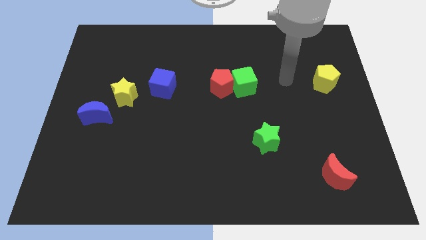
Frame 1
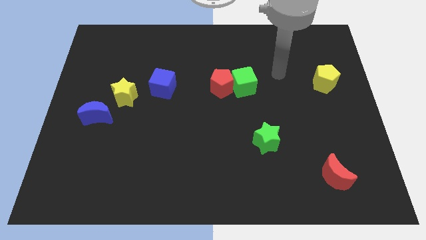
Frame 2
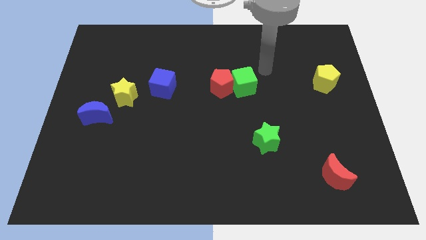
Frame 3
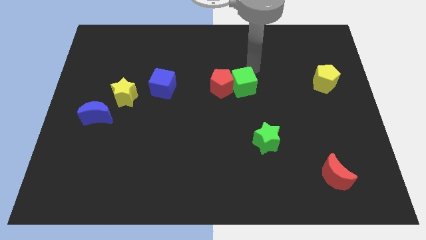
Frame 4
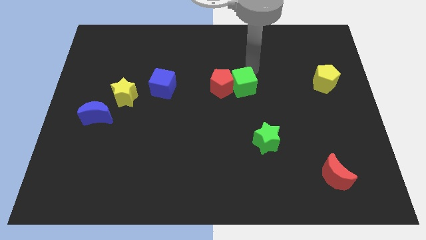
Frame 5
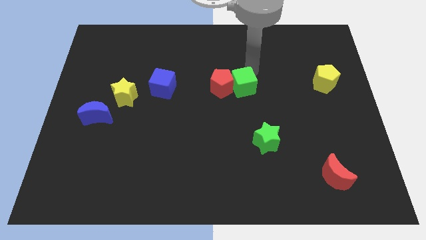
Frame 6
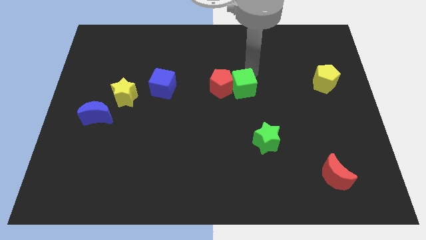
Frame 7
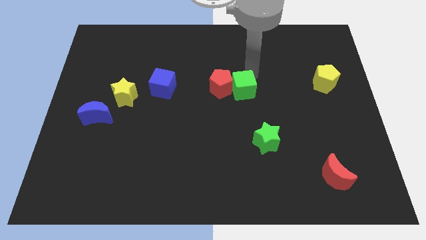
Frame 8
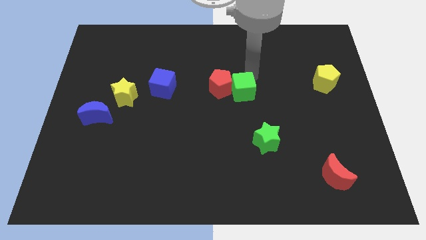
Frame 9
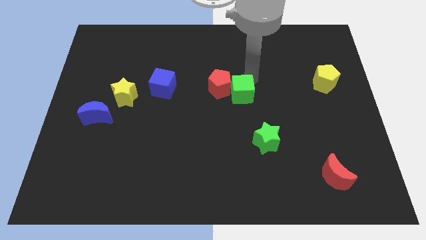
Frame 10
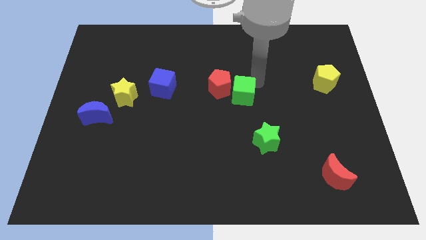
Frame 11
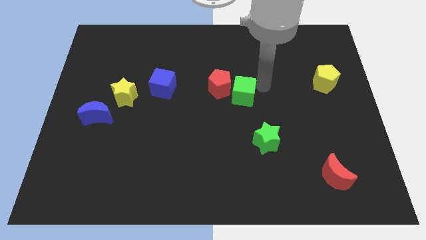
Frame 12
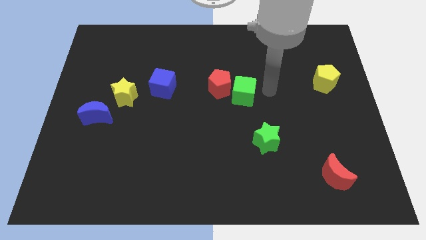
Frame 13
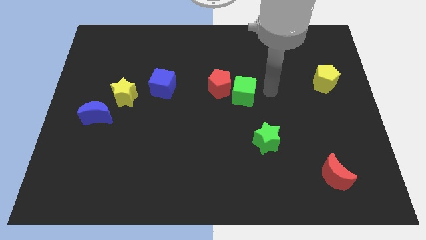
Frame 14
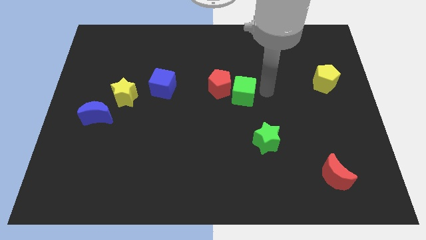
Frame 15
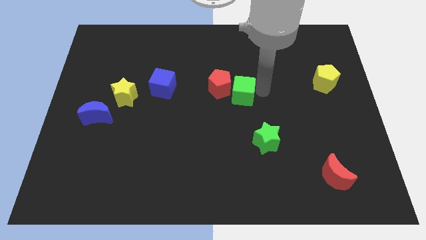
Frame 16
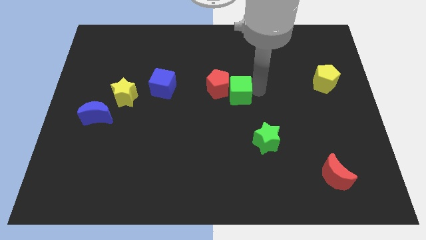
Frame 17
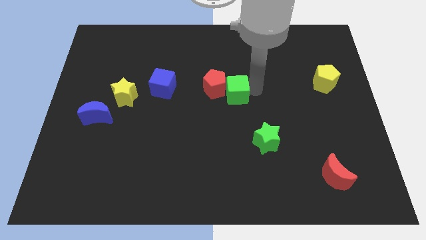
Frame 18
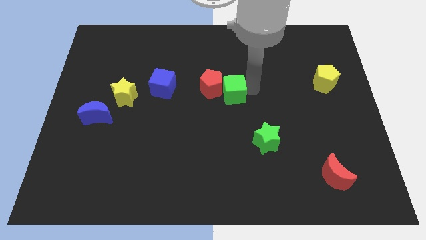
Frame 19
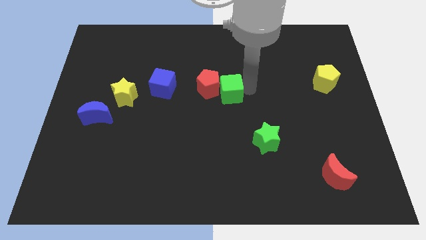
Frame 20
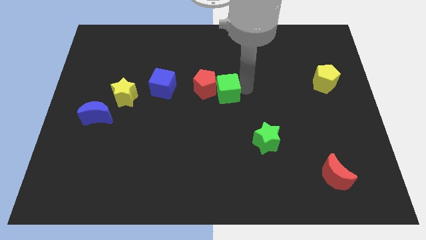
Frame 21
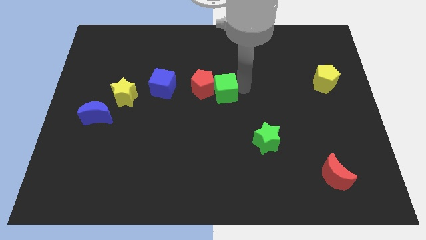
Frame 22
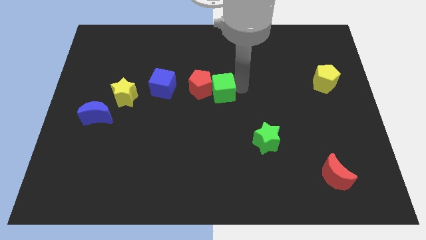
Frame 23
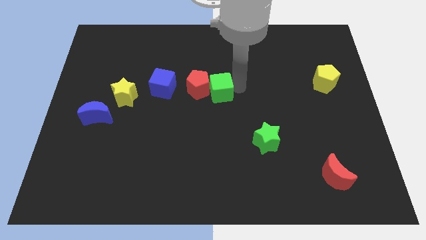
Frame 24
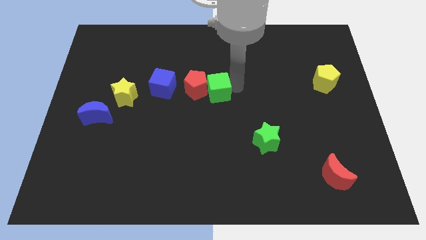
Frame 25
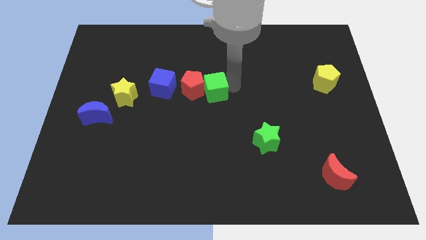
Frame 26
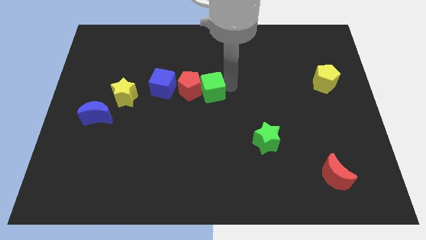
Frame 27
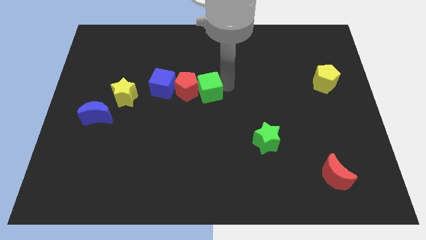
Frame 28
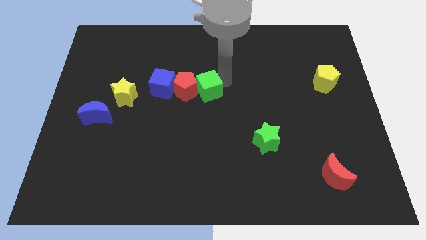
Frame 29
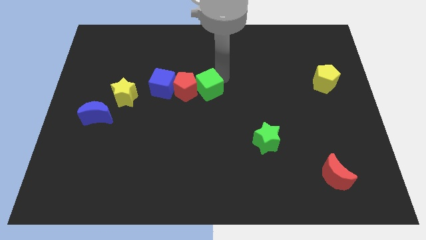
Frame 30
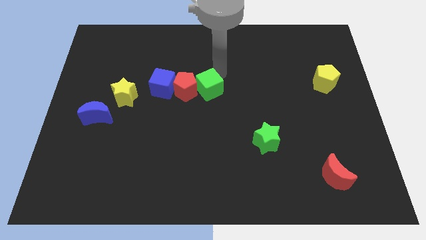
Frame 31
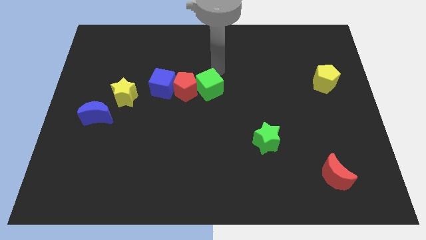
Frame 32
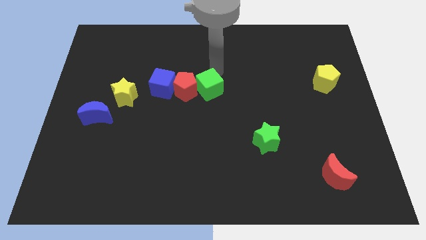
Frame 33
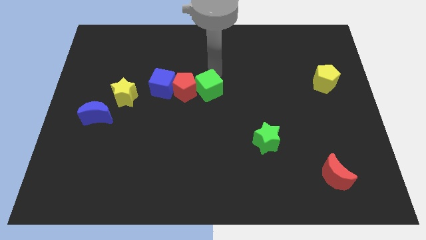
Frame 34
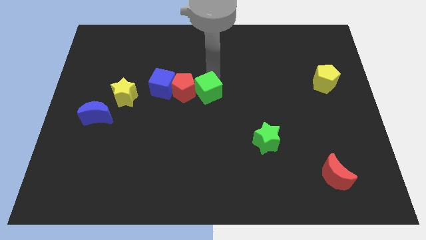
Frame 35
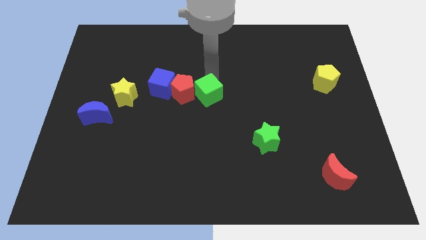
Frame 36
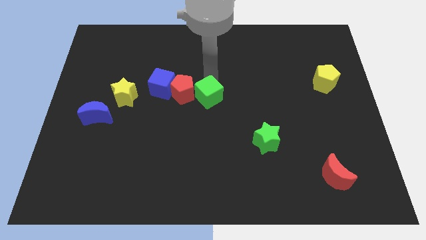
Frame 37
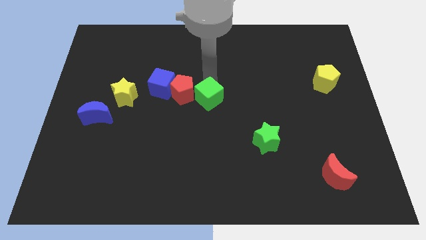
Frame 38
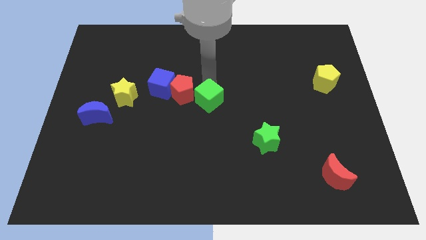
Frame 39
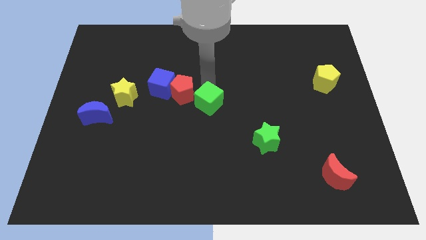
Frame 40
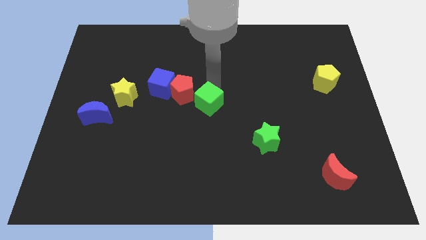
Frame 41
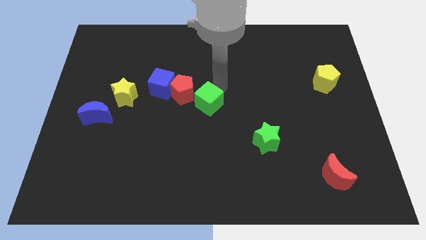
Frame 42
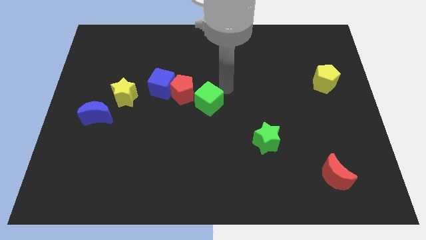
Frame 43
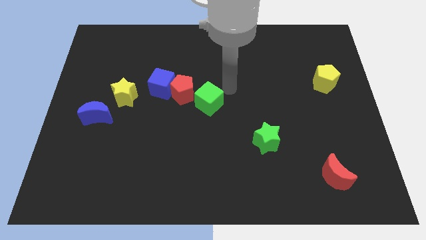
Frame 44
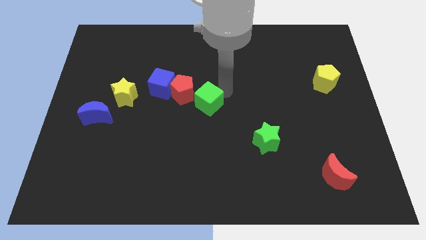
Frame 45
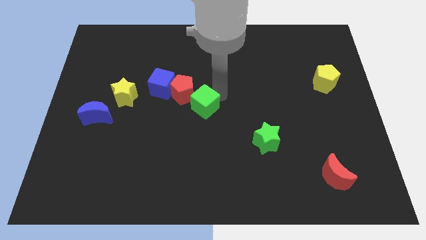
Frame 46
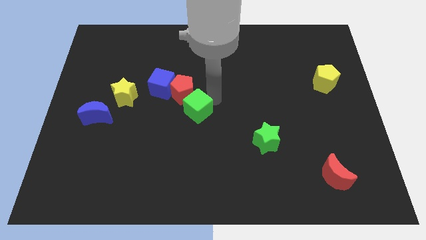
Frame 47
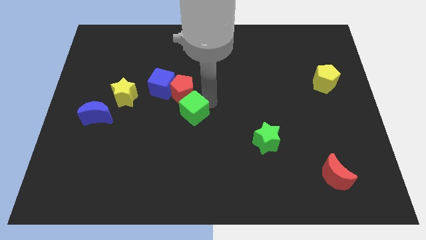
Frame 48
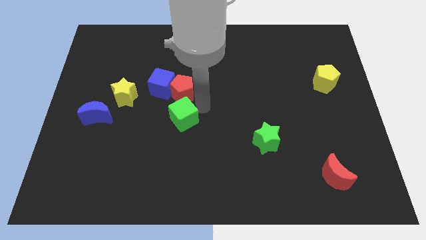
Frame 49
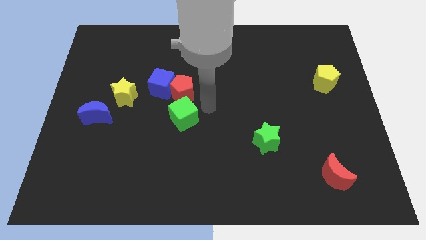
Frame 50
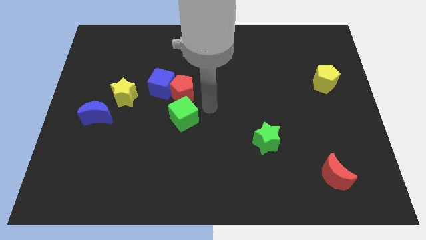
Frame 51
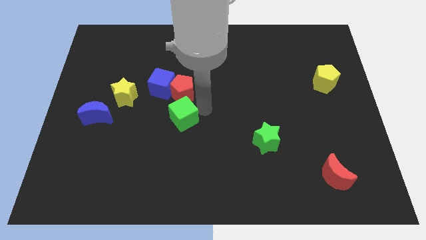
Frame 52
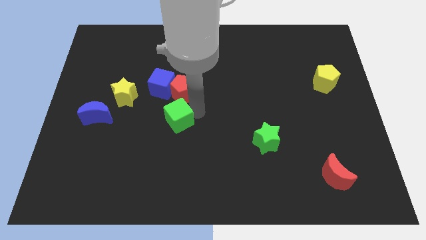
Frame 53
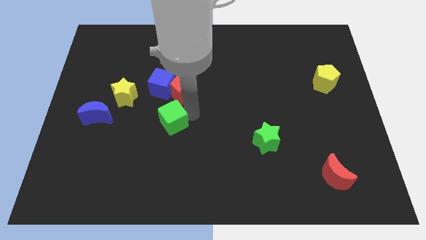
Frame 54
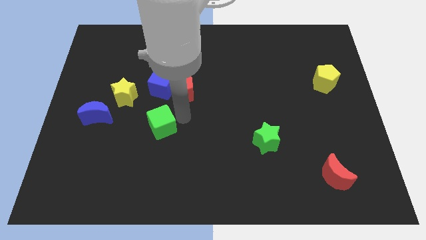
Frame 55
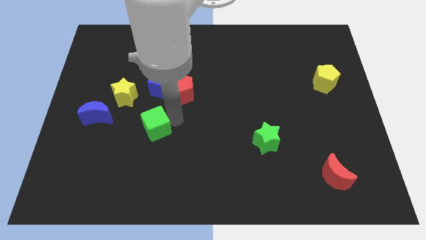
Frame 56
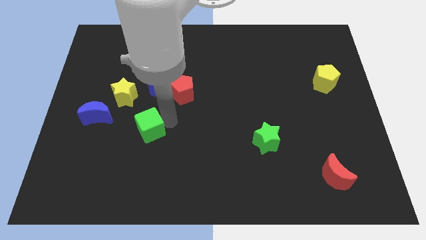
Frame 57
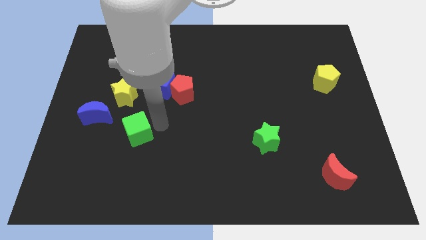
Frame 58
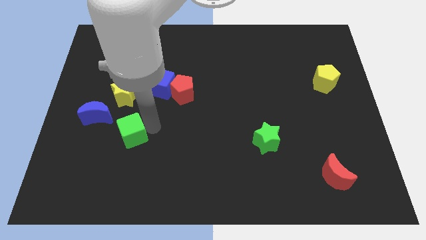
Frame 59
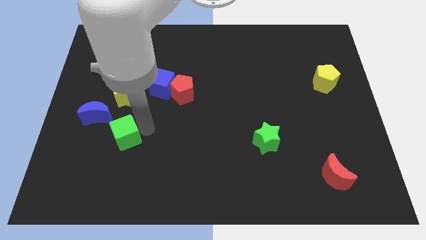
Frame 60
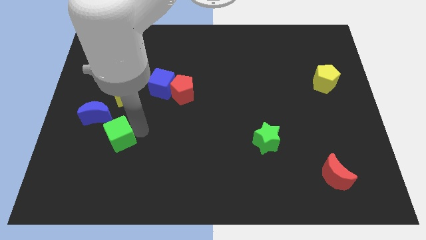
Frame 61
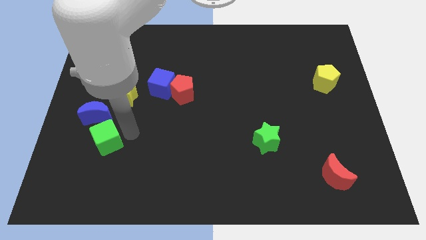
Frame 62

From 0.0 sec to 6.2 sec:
put the green cube to the bottom side of the blue moon

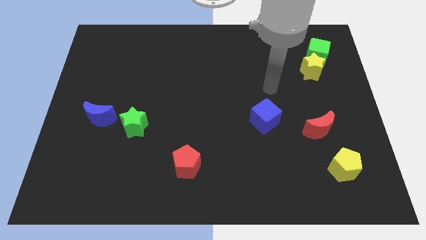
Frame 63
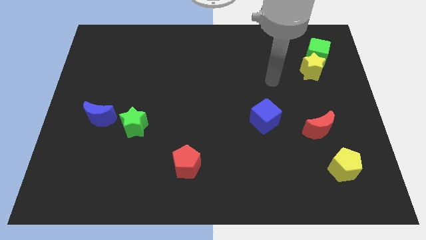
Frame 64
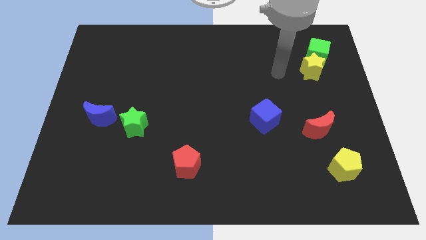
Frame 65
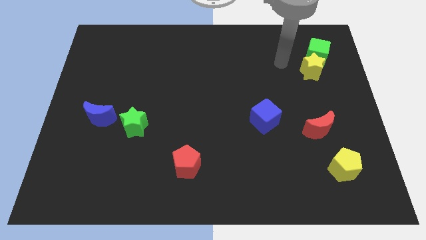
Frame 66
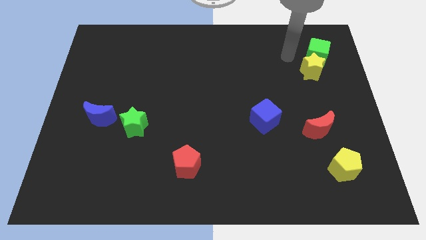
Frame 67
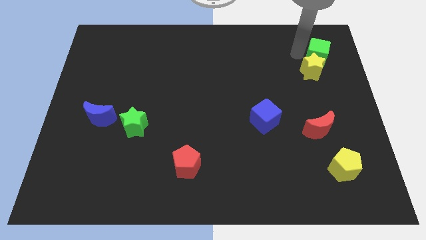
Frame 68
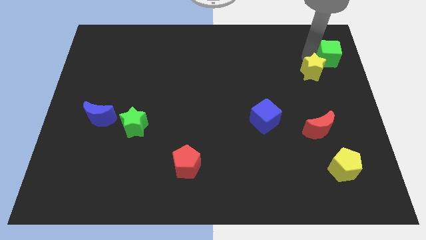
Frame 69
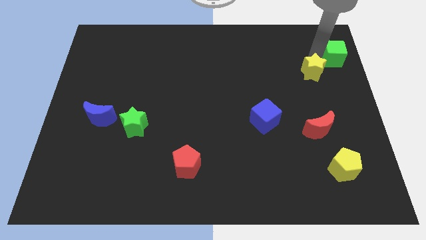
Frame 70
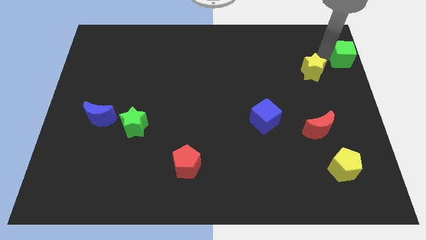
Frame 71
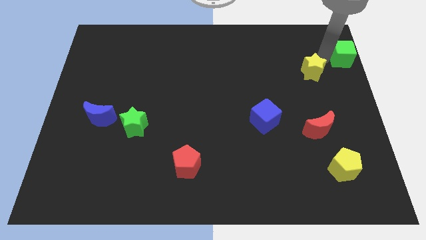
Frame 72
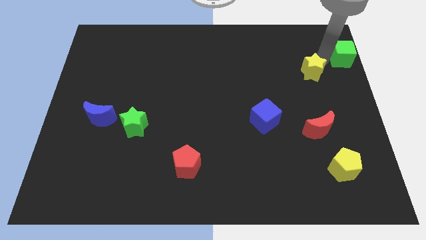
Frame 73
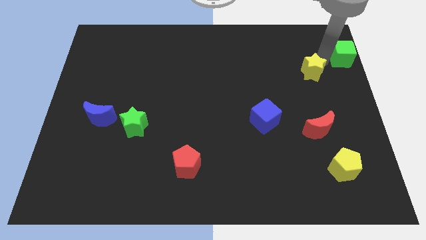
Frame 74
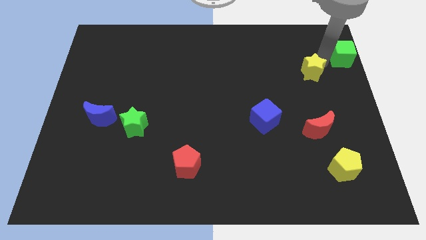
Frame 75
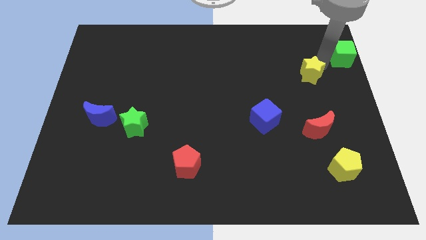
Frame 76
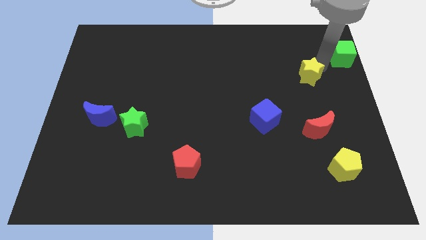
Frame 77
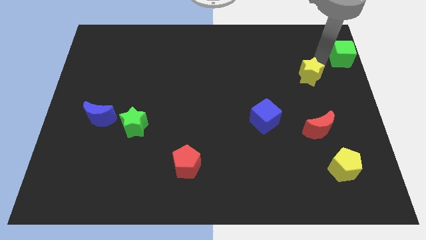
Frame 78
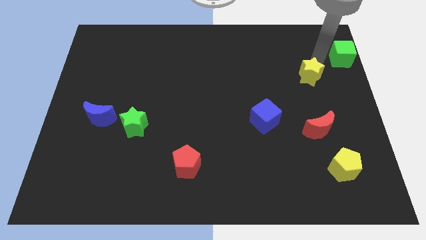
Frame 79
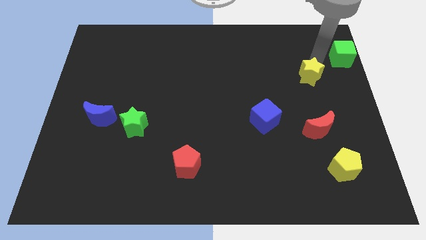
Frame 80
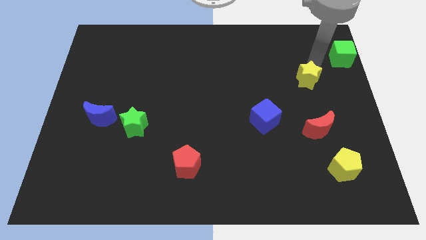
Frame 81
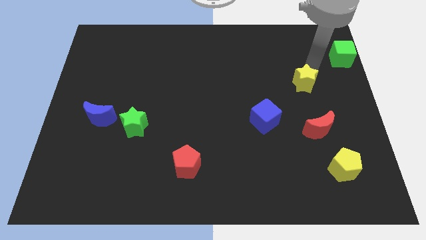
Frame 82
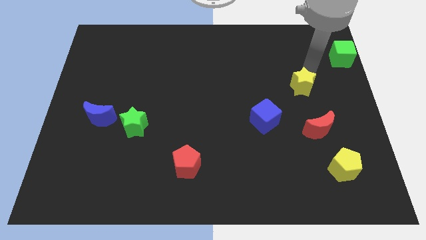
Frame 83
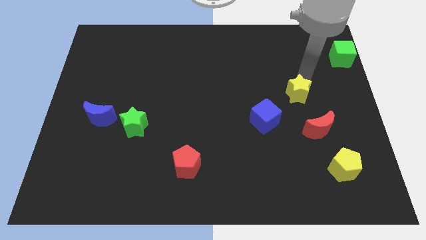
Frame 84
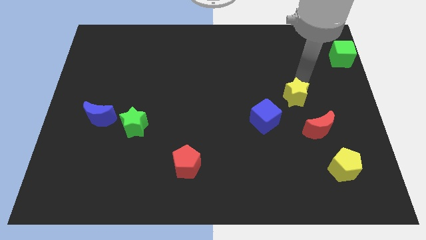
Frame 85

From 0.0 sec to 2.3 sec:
push the yellow star to the top left of the red moon
